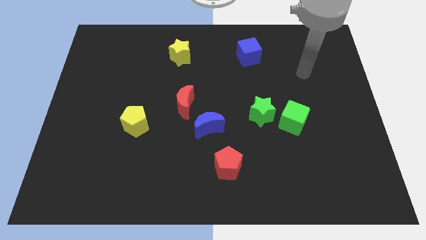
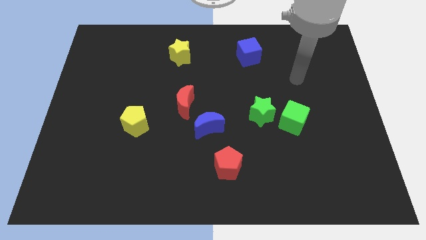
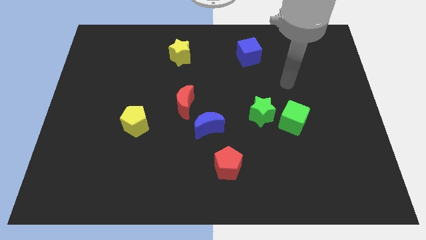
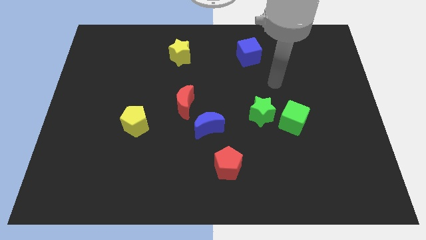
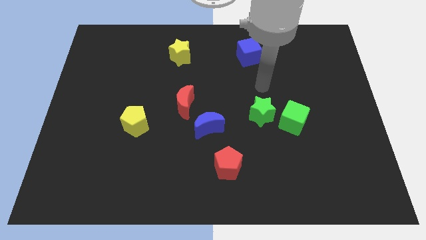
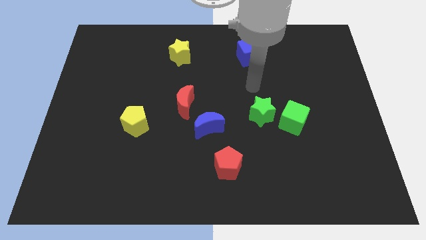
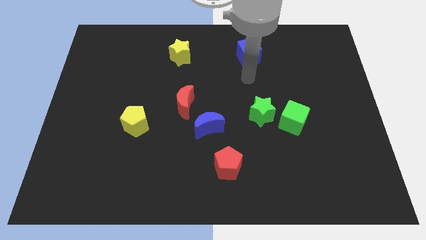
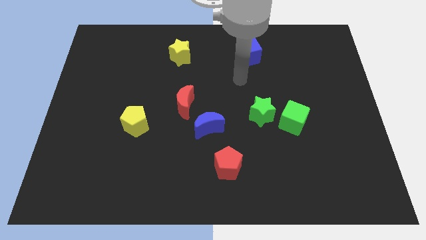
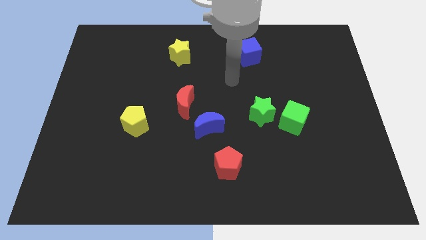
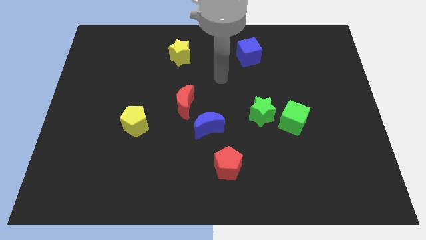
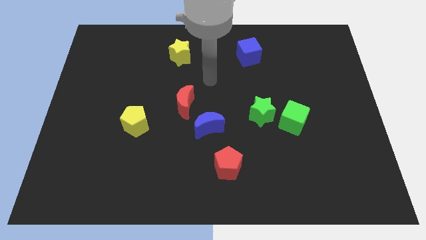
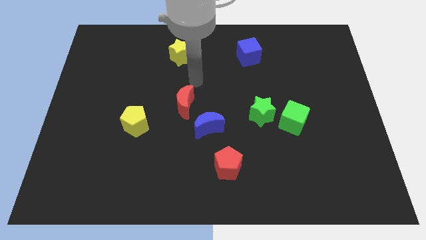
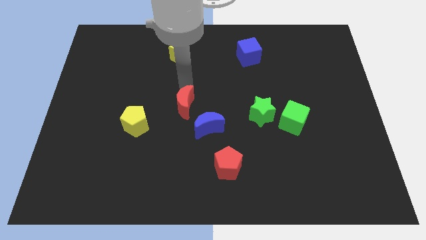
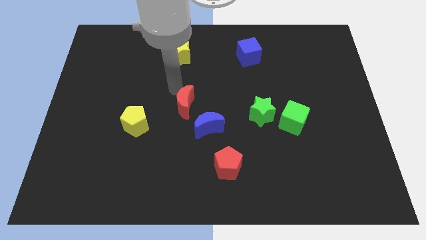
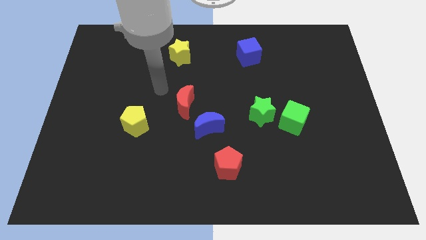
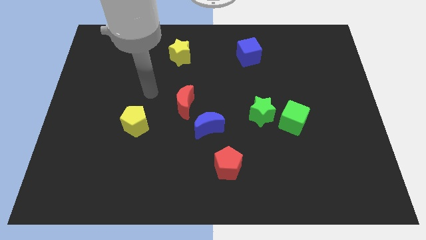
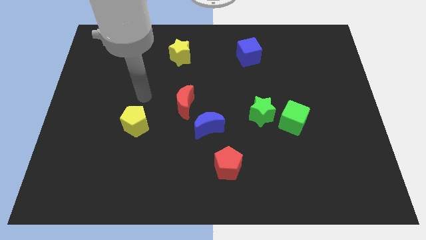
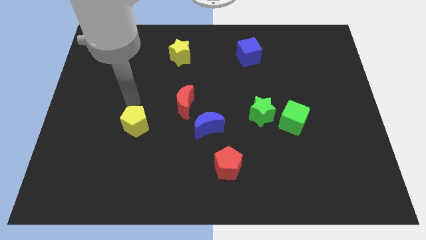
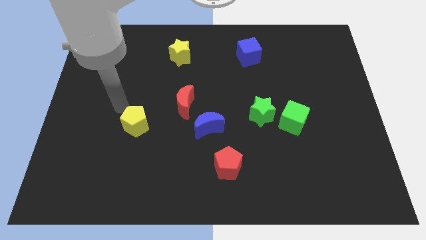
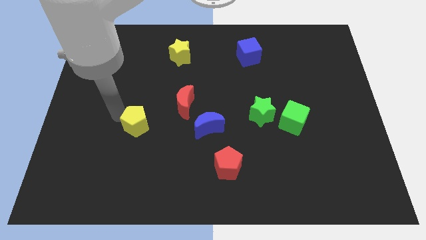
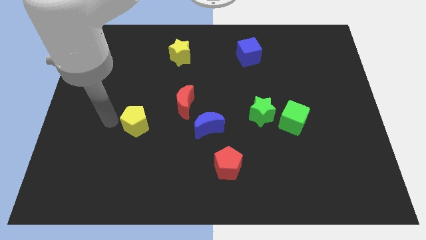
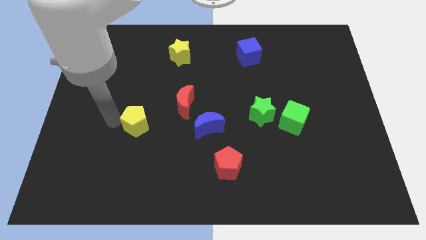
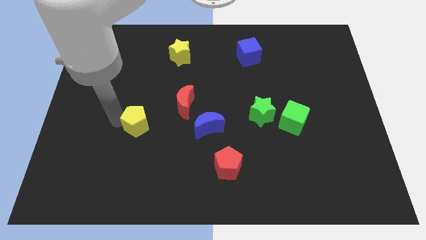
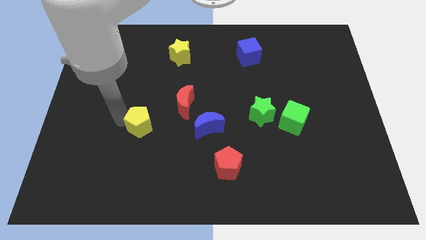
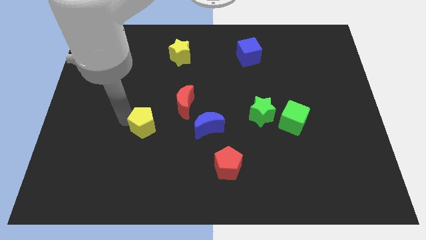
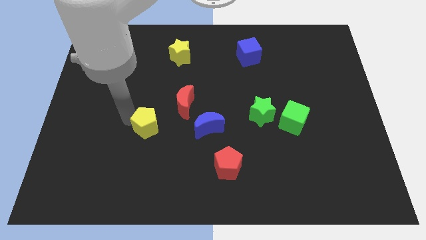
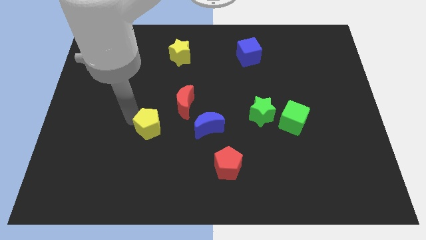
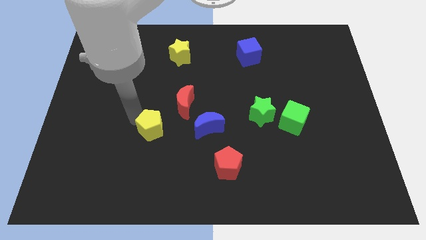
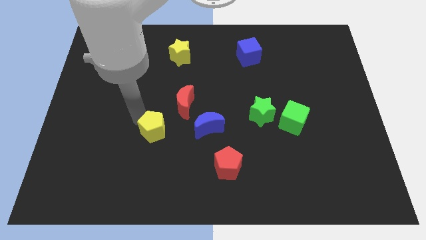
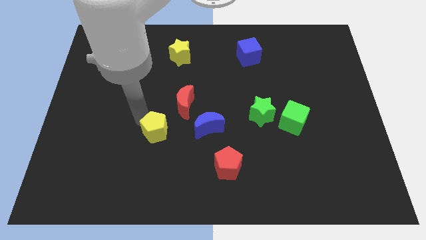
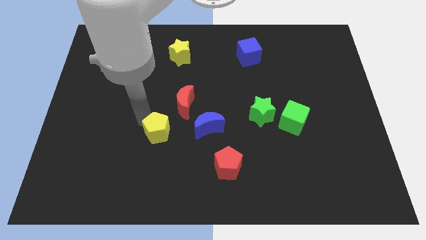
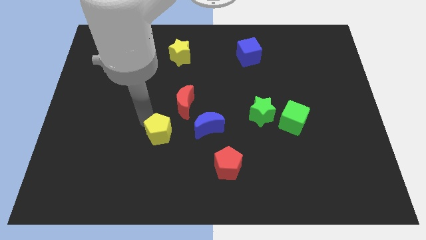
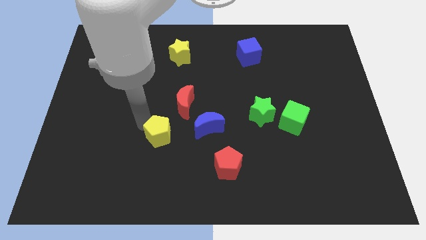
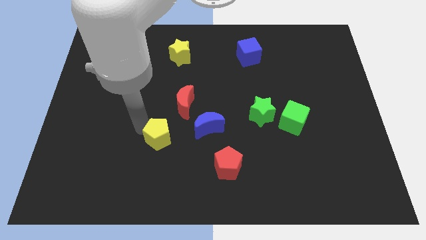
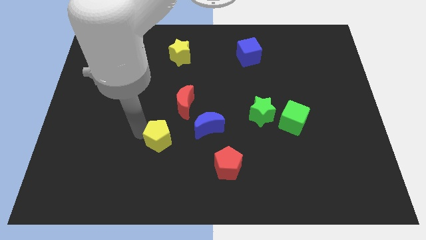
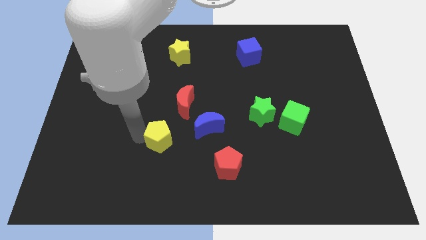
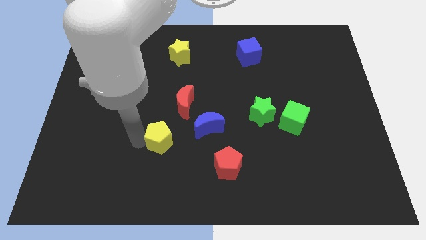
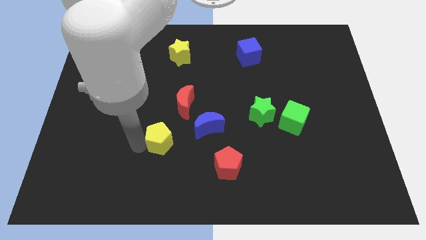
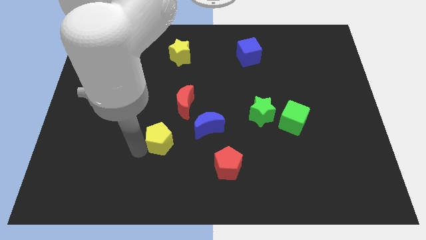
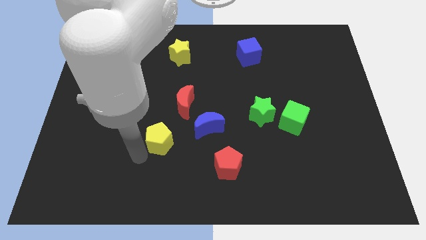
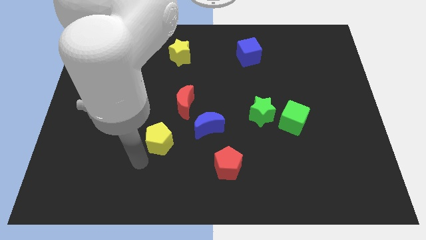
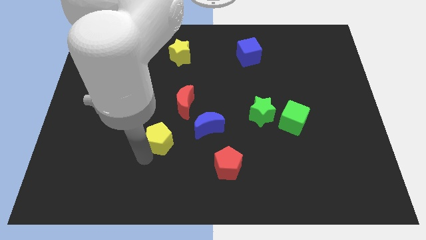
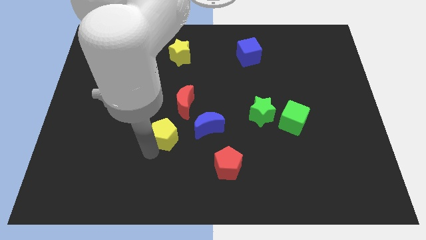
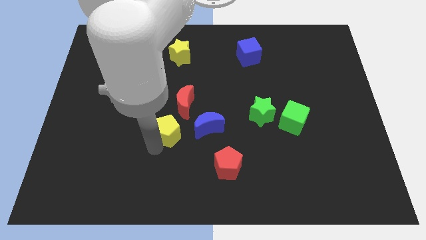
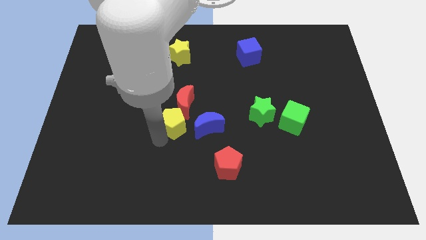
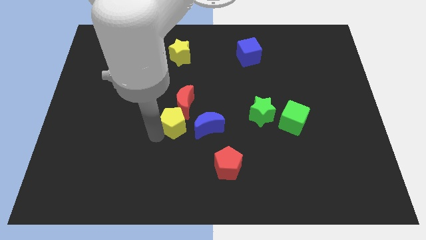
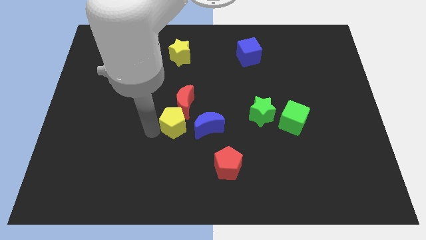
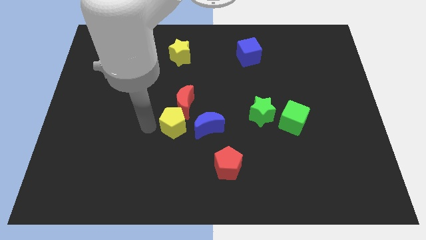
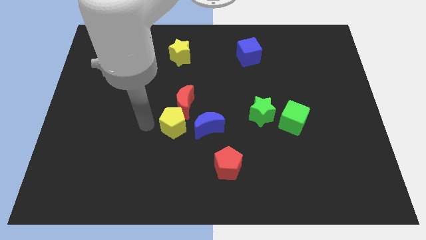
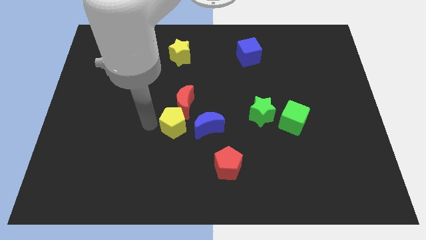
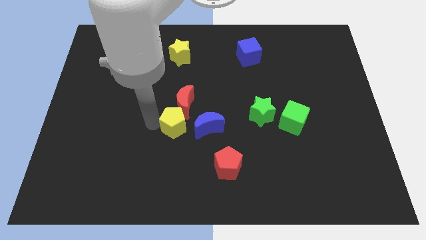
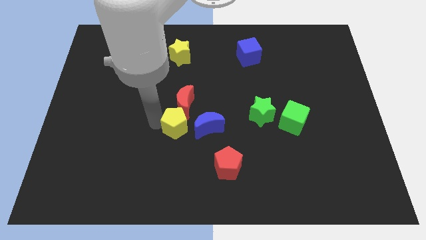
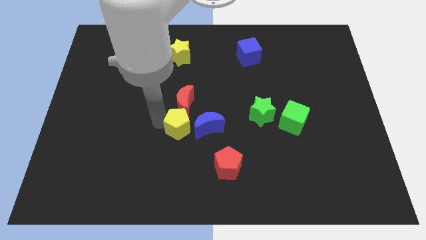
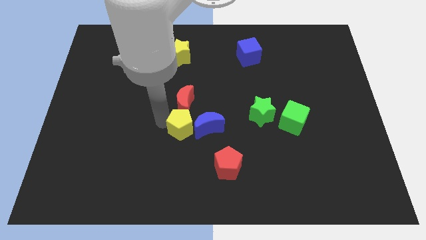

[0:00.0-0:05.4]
push the yellow pentagon next to the blue moon

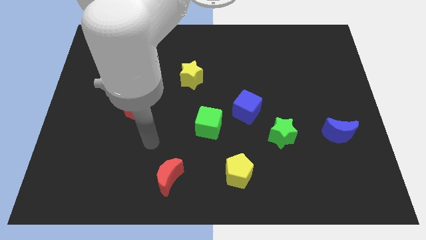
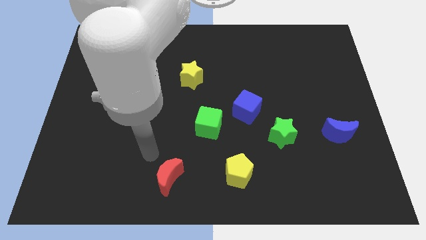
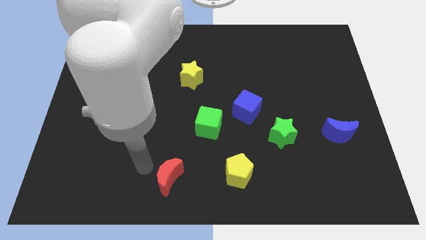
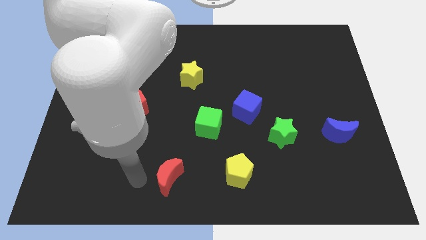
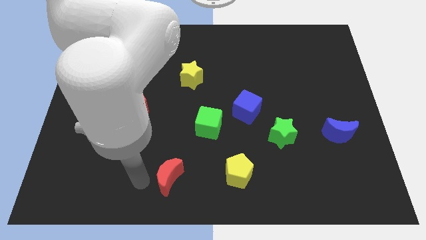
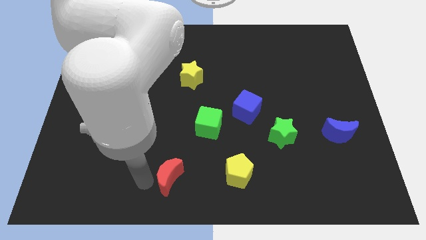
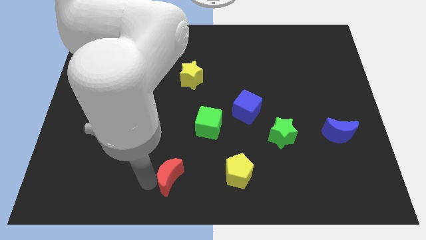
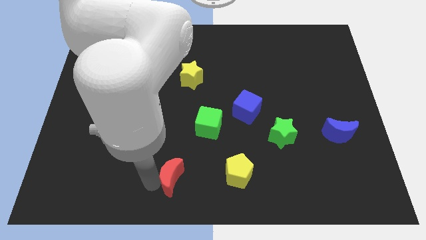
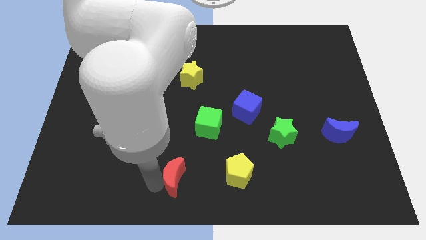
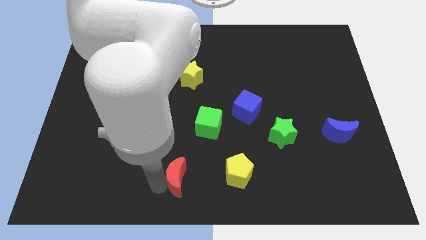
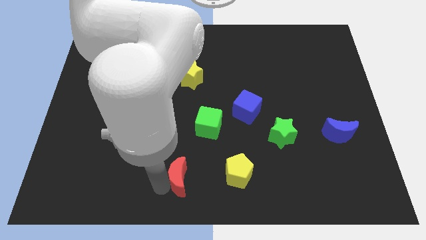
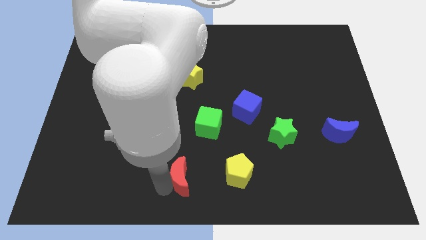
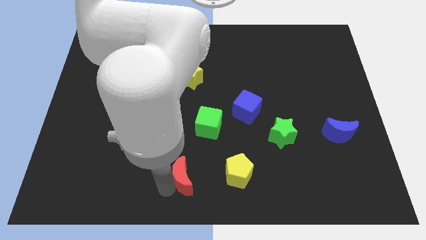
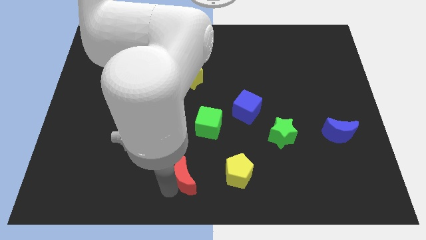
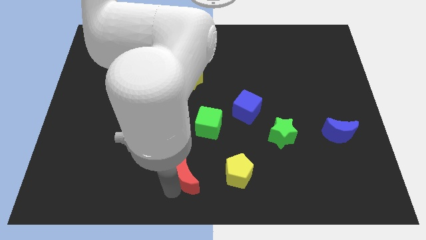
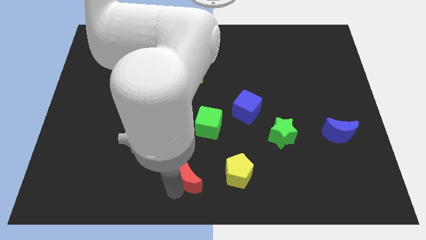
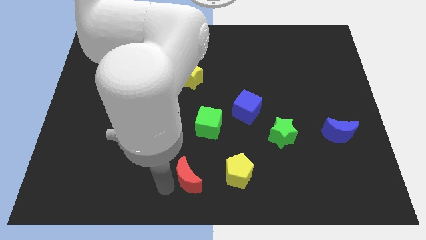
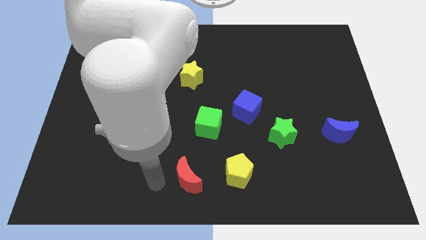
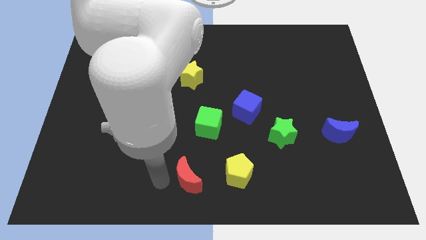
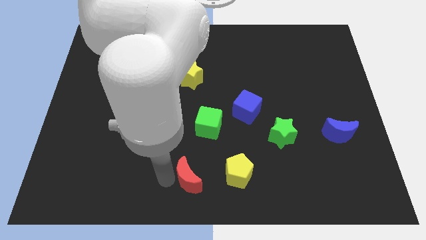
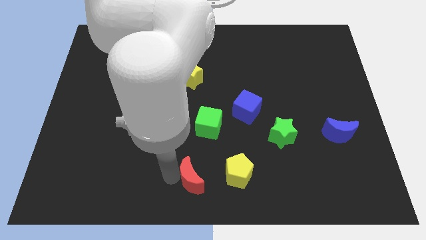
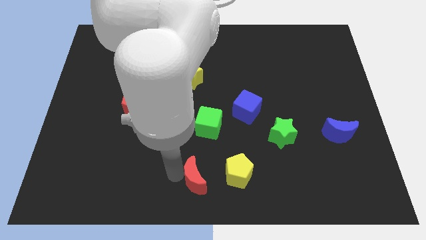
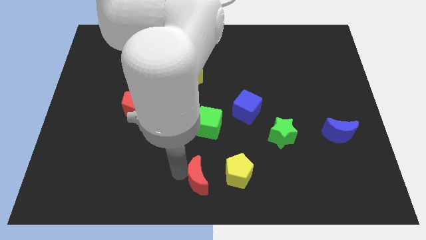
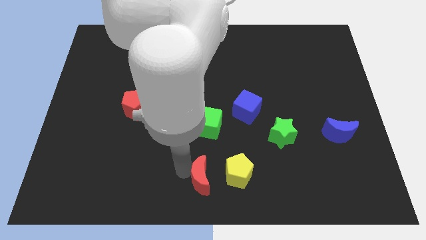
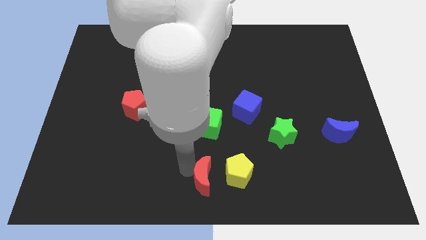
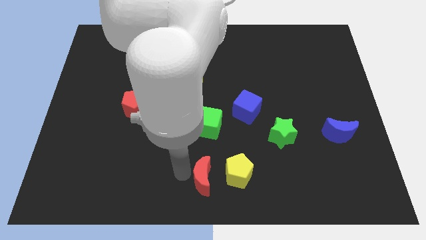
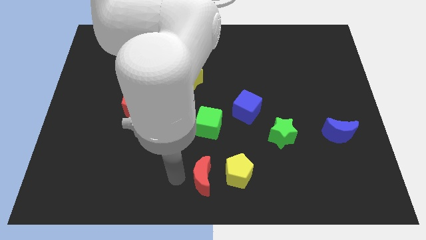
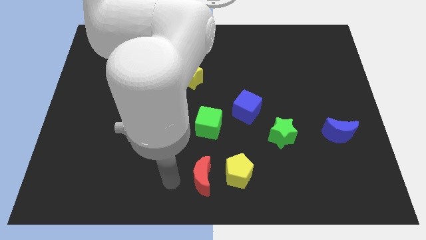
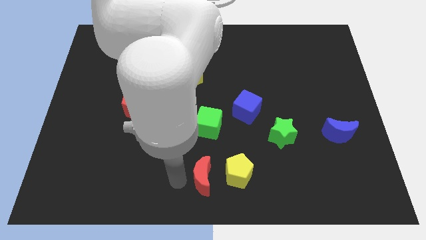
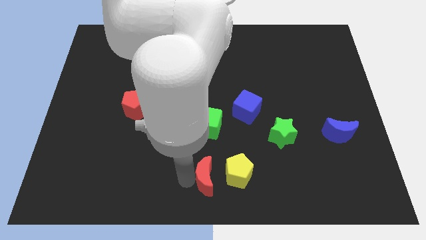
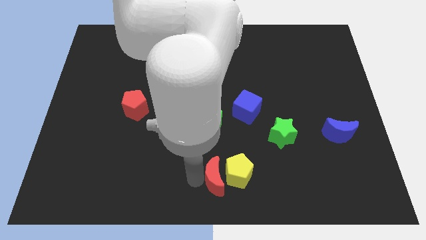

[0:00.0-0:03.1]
slide the red moon close to the yellow pentagon
